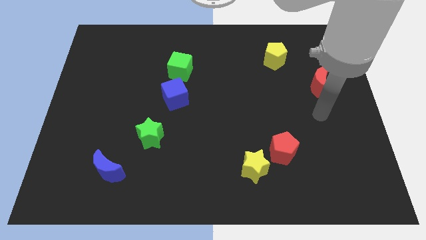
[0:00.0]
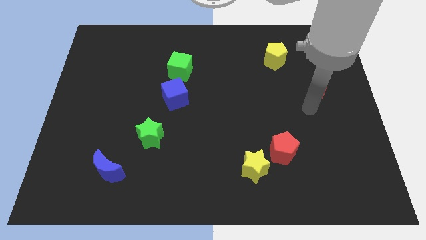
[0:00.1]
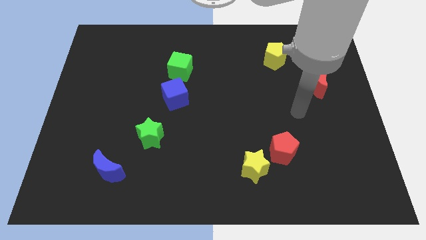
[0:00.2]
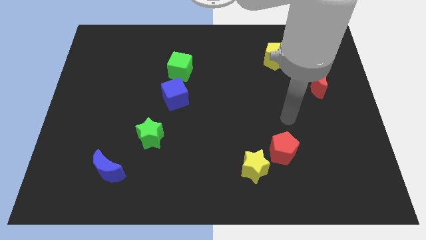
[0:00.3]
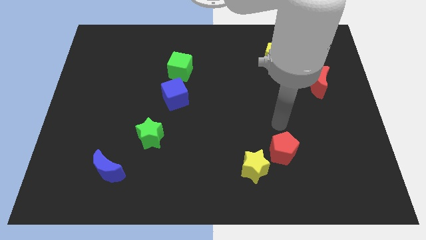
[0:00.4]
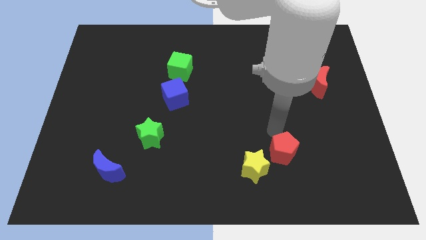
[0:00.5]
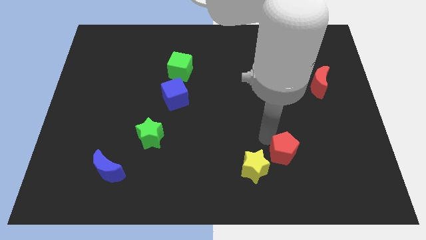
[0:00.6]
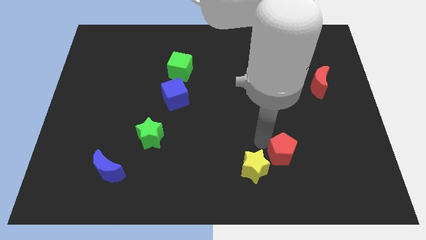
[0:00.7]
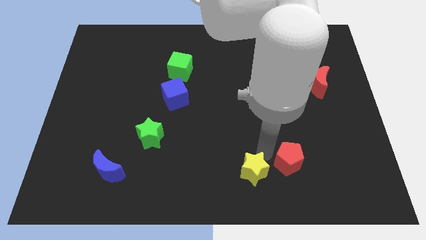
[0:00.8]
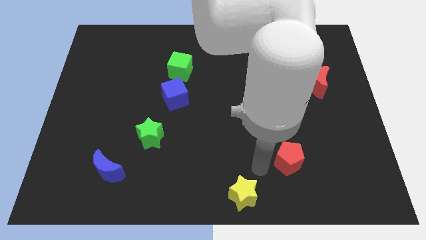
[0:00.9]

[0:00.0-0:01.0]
pull the red pentagon apart from the yellow star

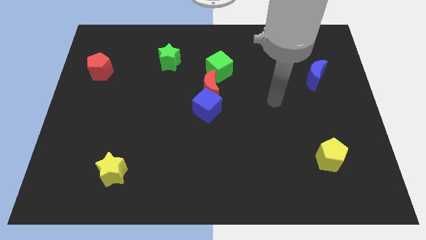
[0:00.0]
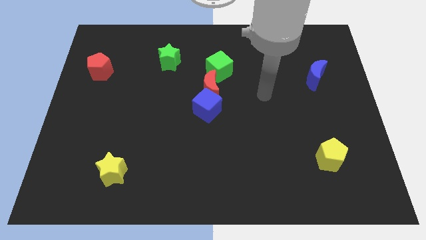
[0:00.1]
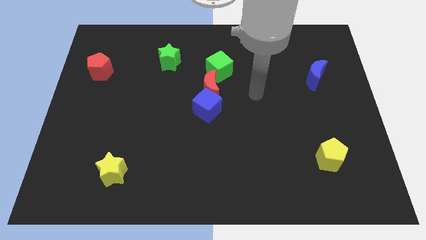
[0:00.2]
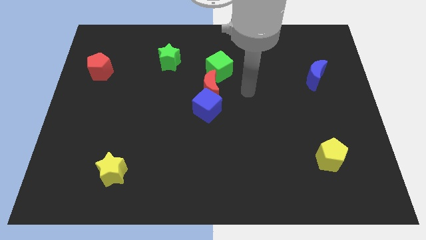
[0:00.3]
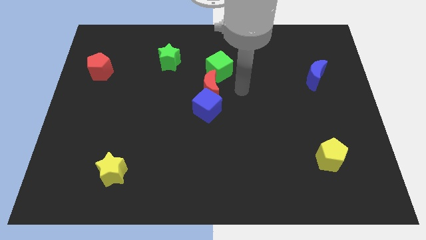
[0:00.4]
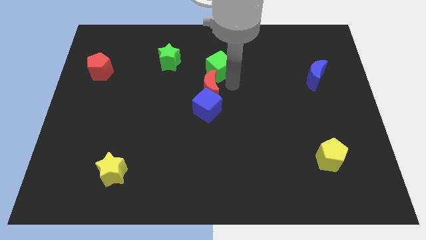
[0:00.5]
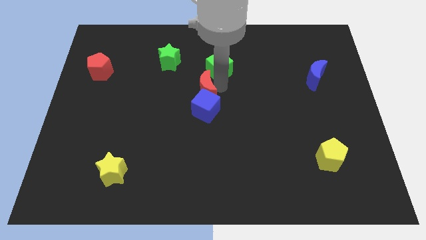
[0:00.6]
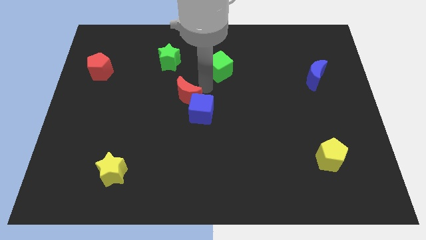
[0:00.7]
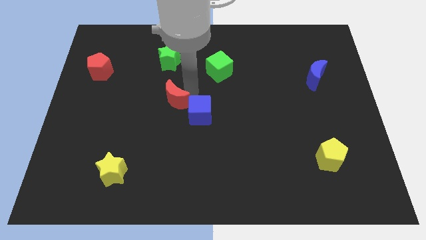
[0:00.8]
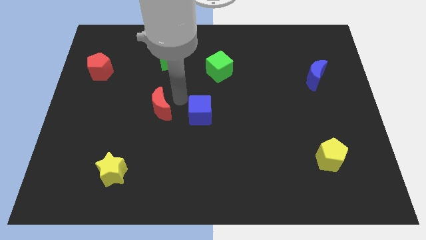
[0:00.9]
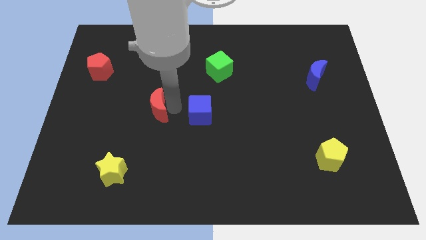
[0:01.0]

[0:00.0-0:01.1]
separate the blue cube from the red moon

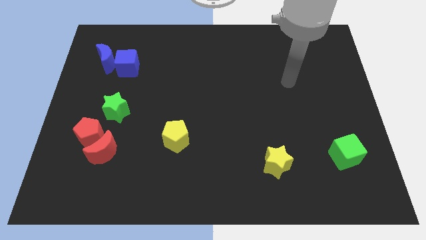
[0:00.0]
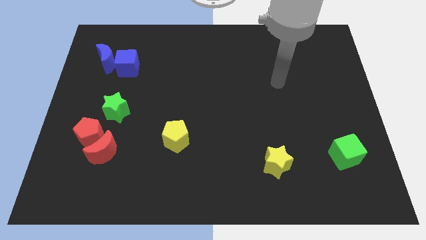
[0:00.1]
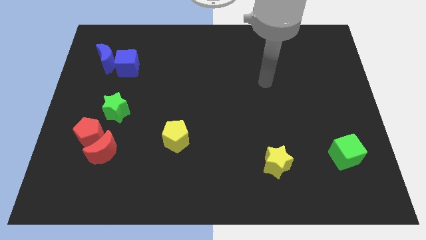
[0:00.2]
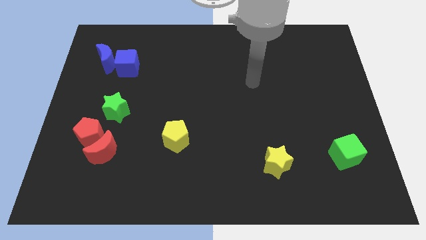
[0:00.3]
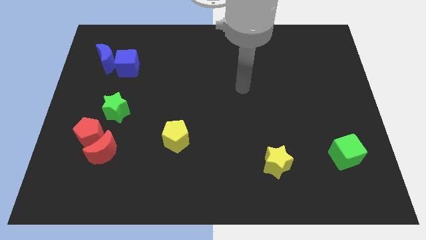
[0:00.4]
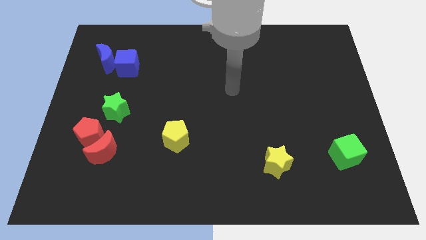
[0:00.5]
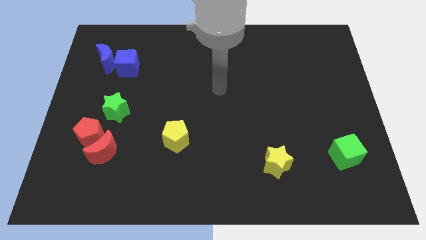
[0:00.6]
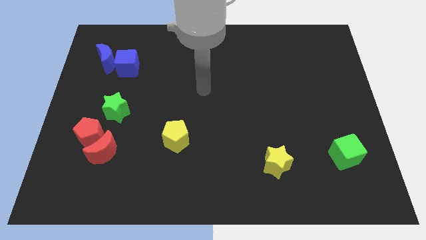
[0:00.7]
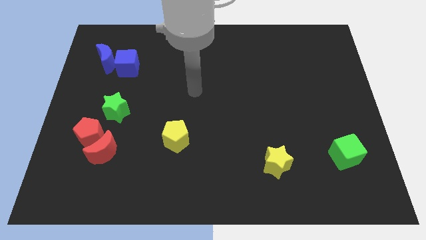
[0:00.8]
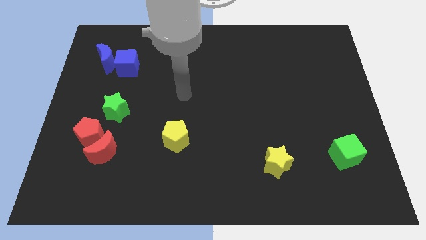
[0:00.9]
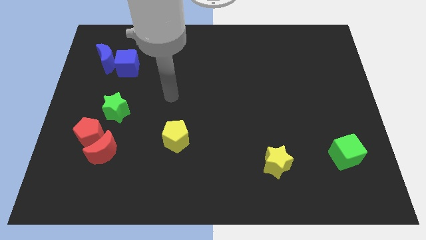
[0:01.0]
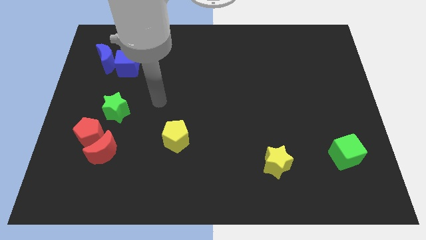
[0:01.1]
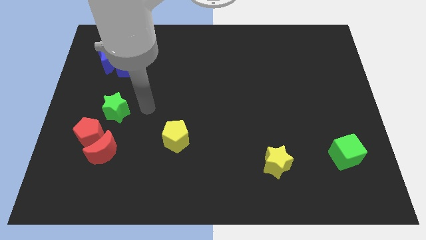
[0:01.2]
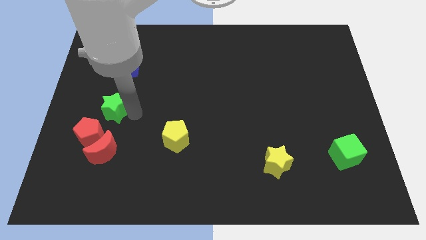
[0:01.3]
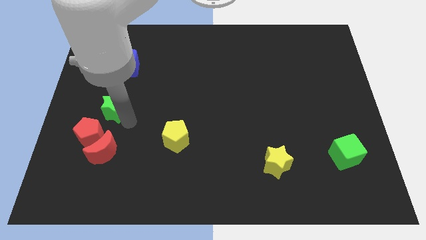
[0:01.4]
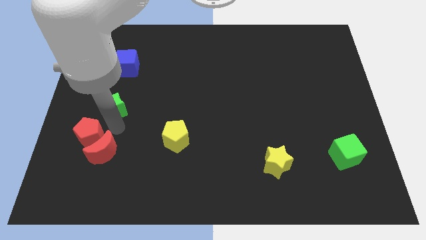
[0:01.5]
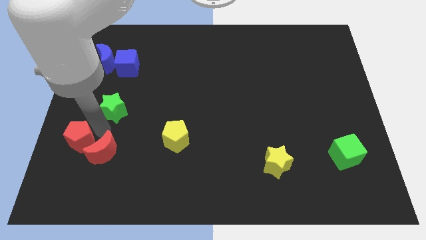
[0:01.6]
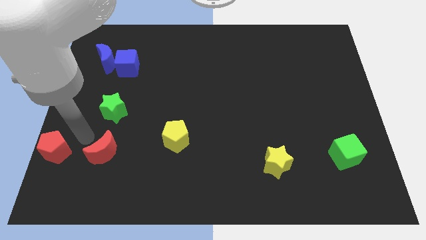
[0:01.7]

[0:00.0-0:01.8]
separate the red moon from the red pentagon

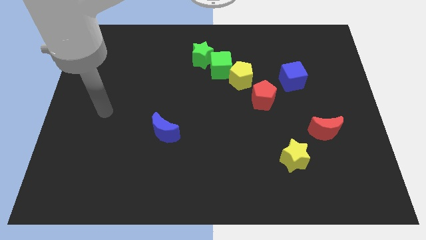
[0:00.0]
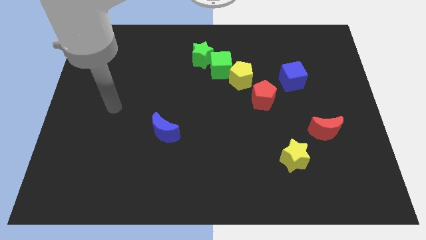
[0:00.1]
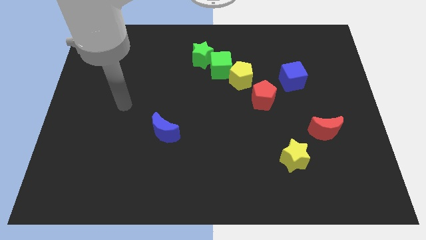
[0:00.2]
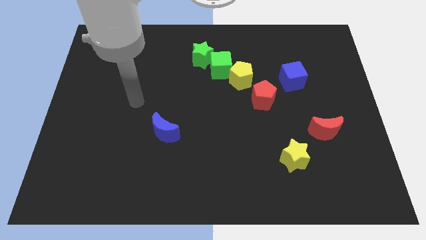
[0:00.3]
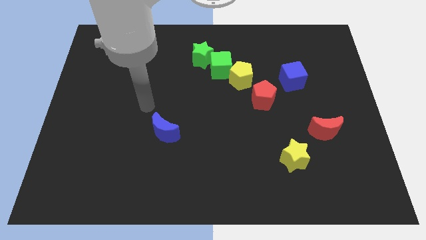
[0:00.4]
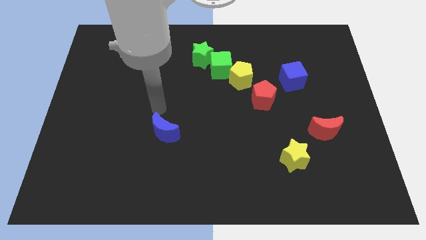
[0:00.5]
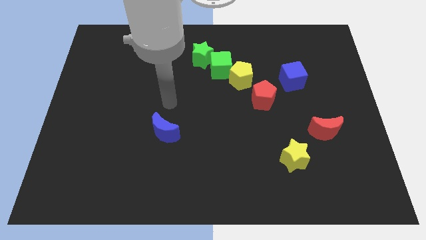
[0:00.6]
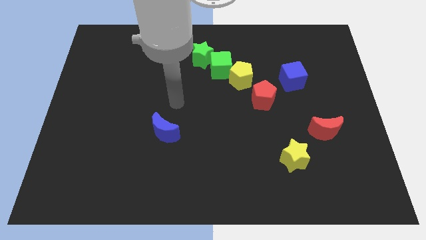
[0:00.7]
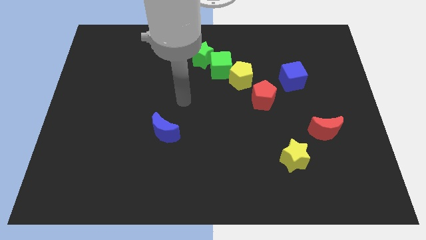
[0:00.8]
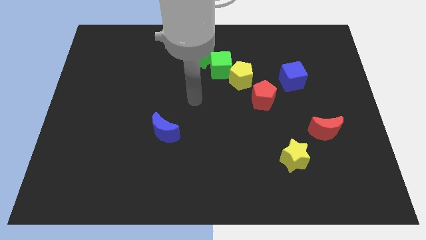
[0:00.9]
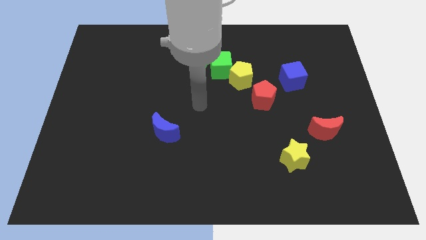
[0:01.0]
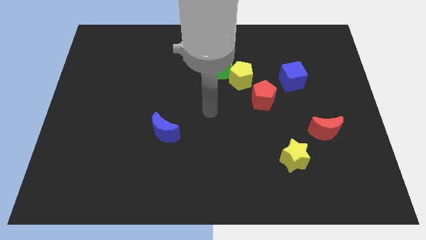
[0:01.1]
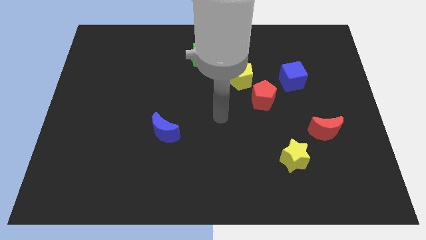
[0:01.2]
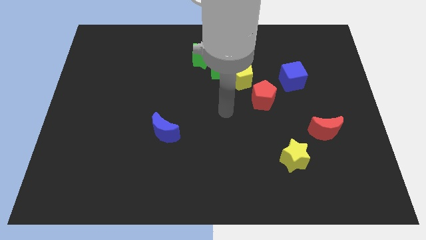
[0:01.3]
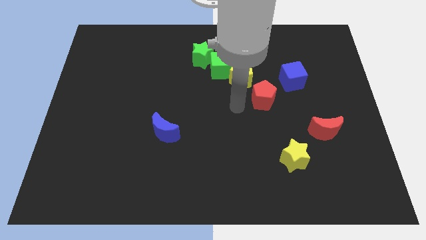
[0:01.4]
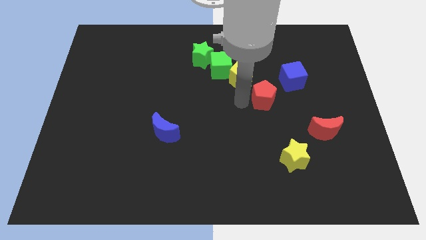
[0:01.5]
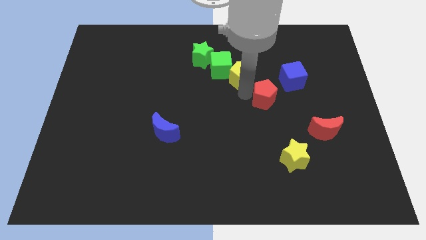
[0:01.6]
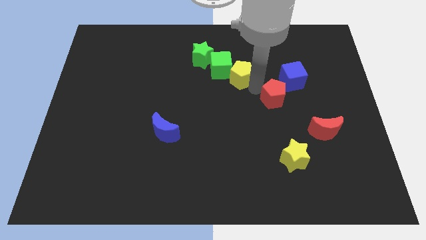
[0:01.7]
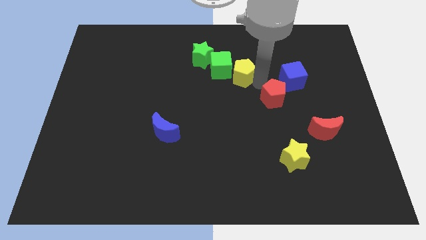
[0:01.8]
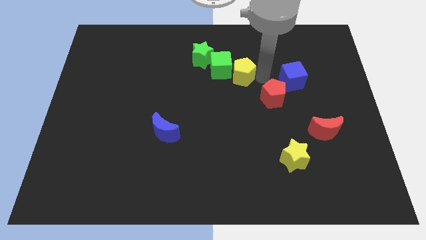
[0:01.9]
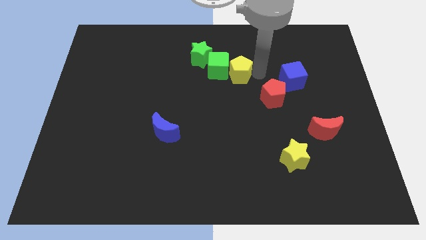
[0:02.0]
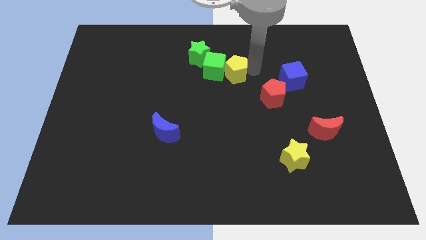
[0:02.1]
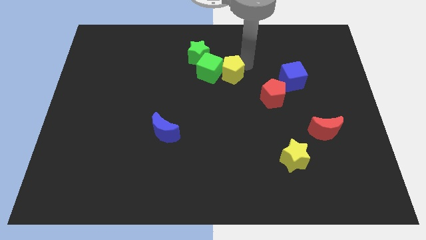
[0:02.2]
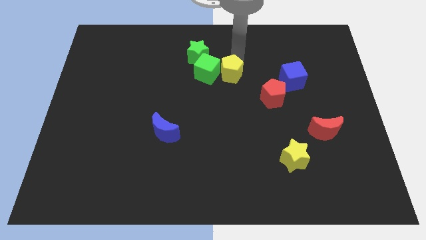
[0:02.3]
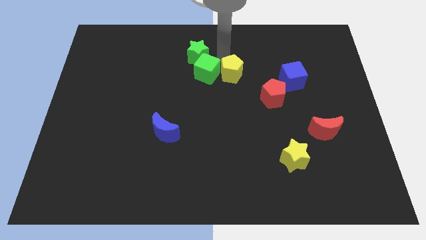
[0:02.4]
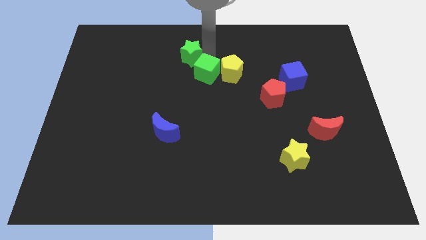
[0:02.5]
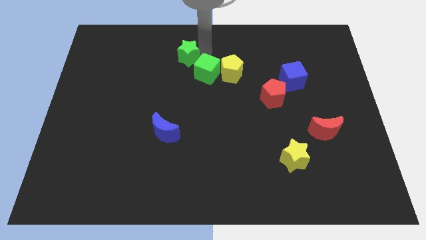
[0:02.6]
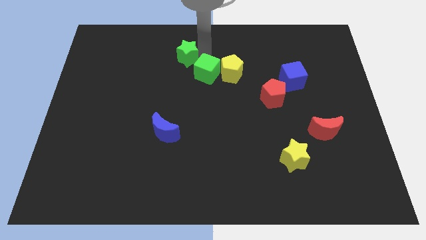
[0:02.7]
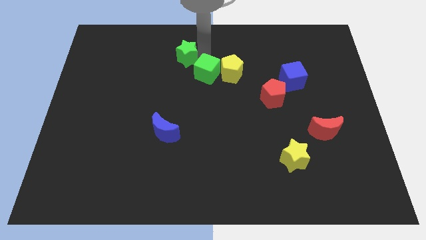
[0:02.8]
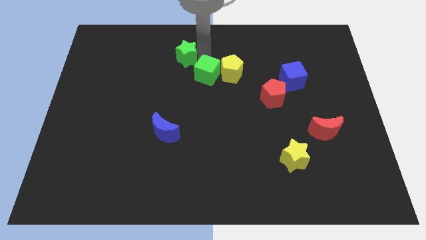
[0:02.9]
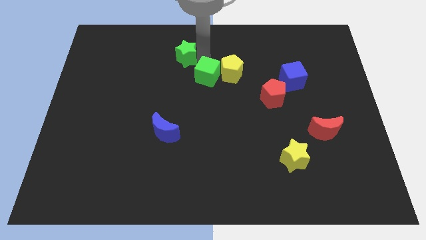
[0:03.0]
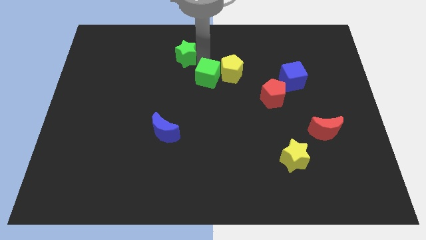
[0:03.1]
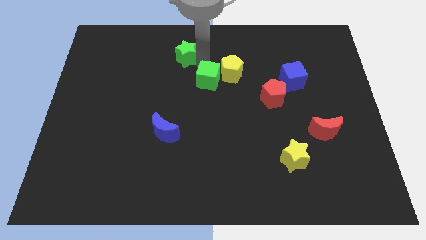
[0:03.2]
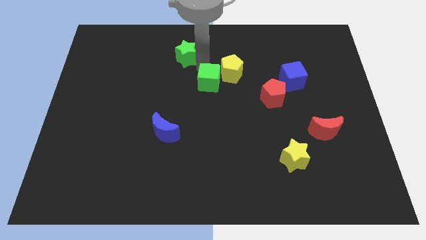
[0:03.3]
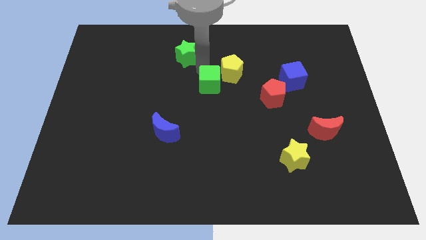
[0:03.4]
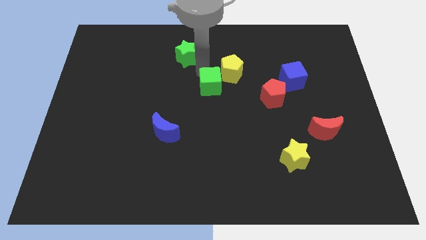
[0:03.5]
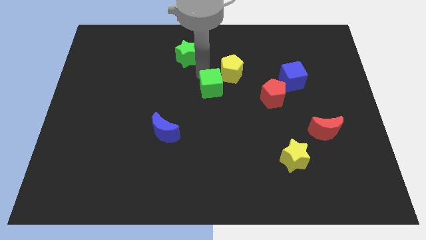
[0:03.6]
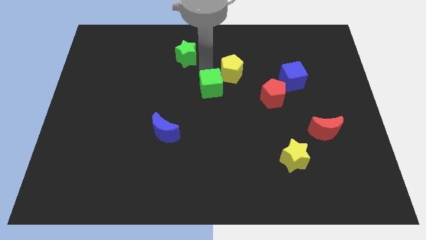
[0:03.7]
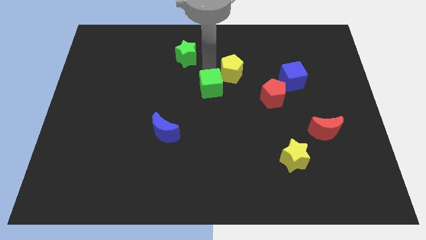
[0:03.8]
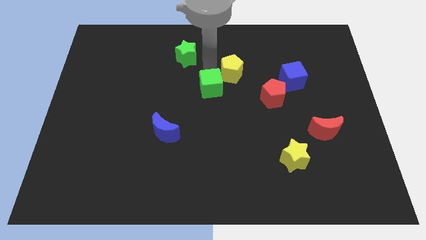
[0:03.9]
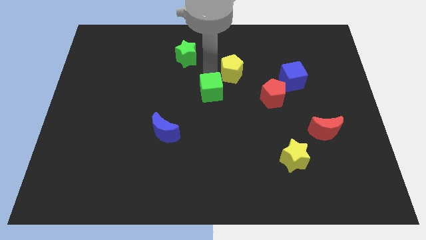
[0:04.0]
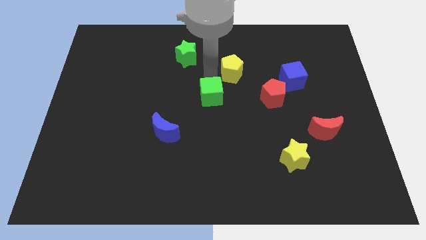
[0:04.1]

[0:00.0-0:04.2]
move the green cube away from the yellow pentagon and green star

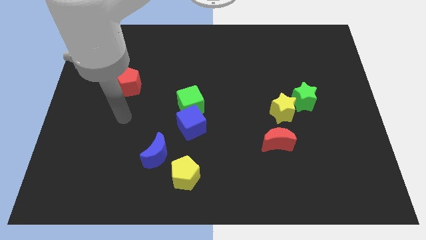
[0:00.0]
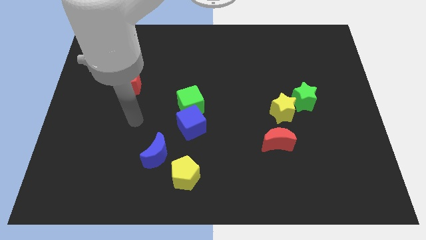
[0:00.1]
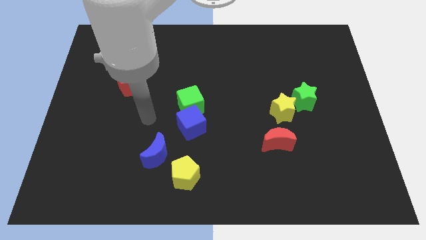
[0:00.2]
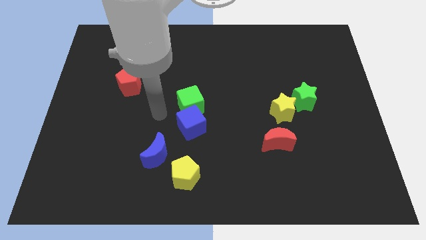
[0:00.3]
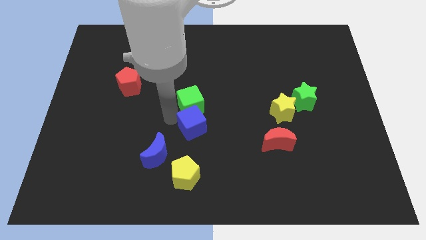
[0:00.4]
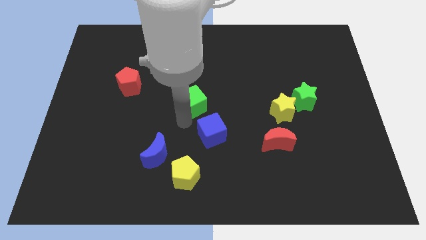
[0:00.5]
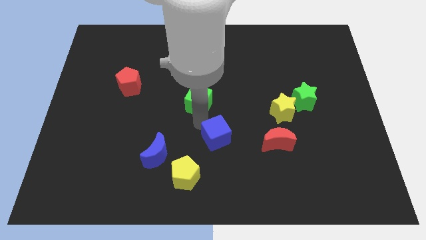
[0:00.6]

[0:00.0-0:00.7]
pull the green cube apart from the blue cube

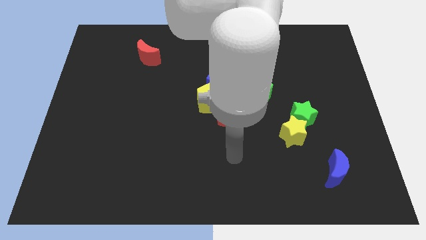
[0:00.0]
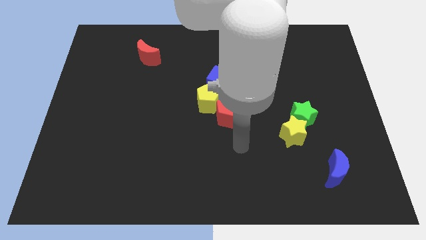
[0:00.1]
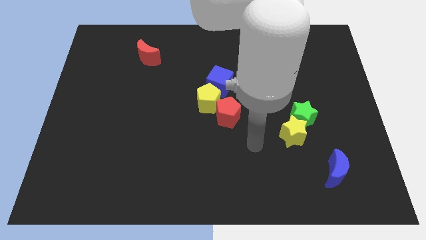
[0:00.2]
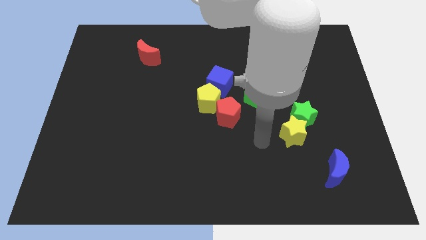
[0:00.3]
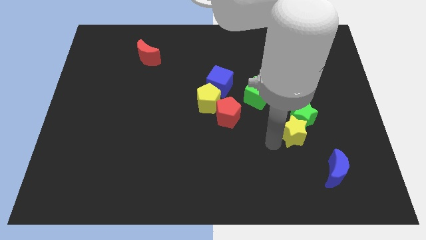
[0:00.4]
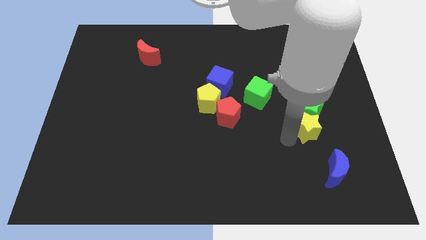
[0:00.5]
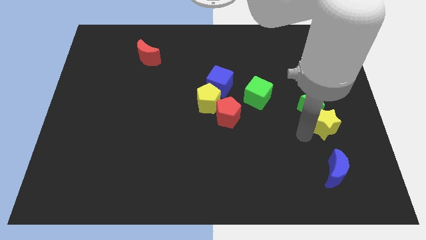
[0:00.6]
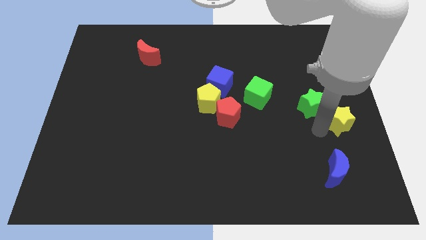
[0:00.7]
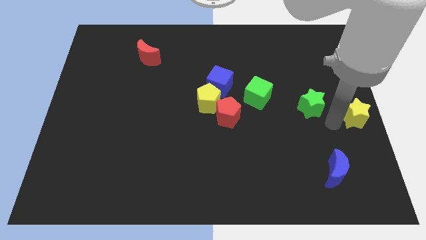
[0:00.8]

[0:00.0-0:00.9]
move the green star away from the yellow star
